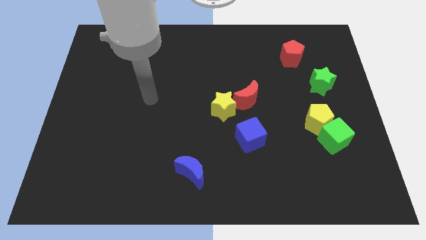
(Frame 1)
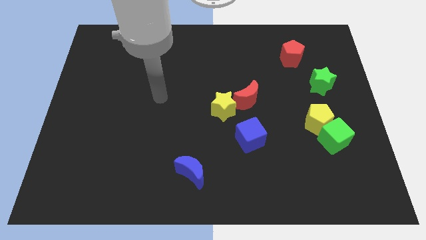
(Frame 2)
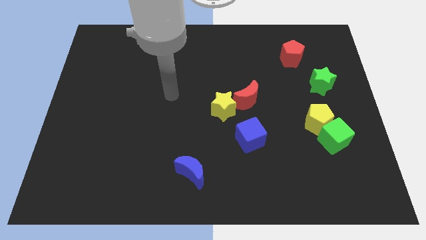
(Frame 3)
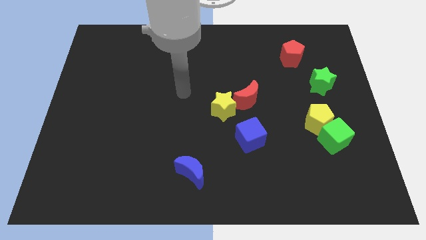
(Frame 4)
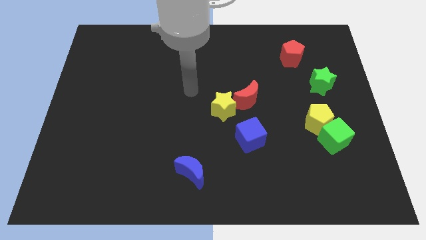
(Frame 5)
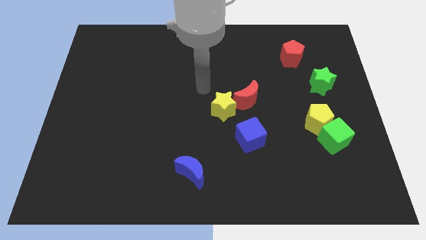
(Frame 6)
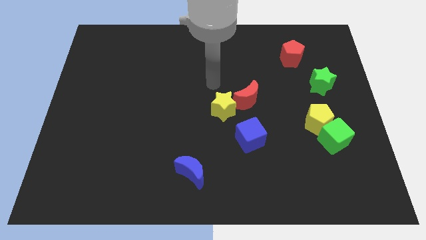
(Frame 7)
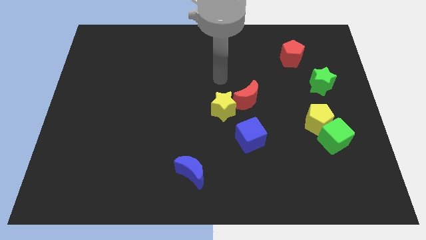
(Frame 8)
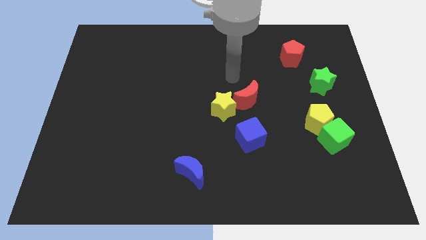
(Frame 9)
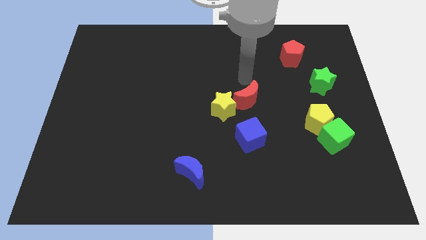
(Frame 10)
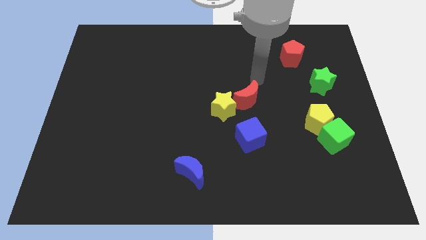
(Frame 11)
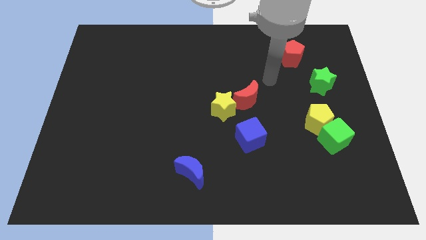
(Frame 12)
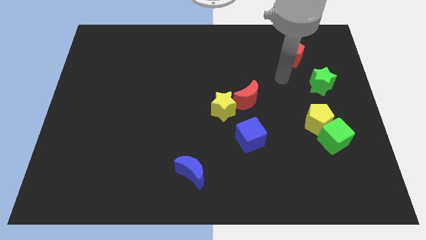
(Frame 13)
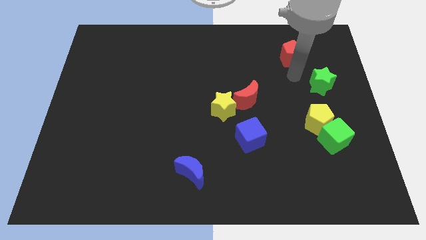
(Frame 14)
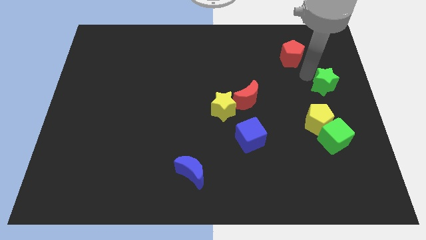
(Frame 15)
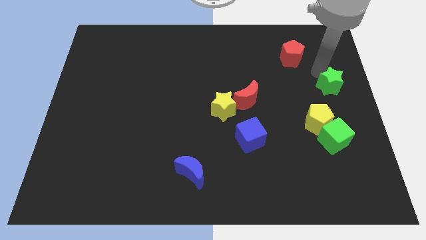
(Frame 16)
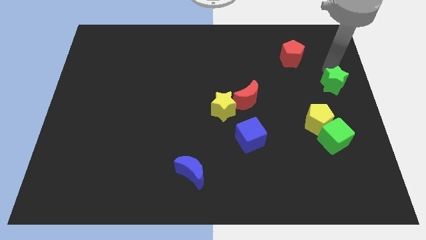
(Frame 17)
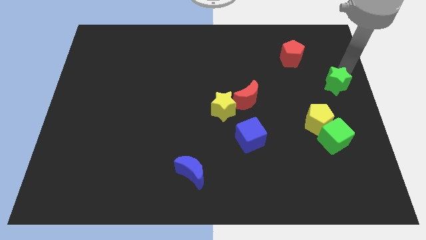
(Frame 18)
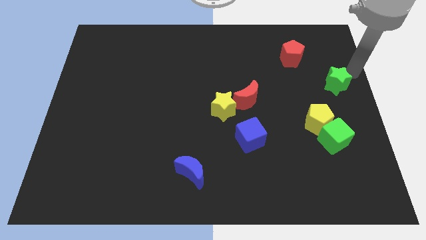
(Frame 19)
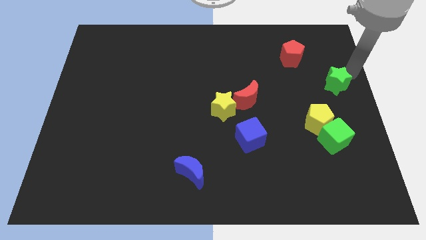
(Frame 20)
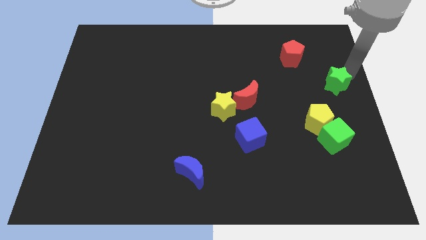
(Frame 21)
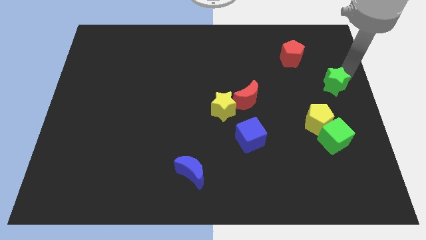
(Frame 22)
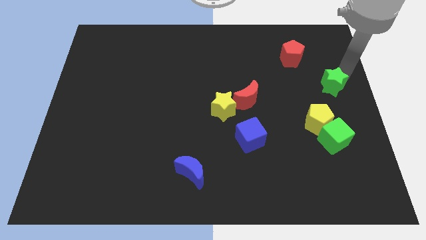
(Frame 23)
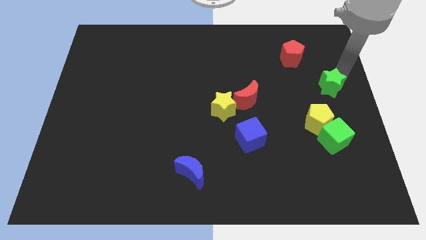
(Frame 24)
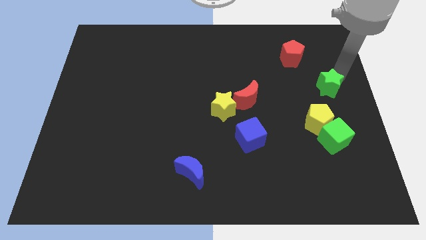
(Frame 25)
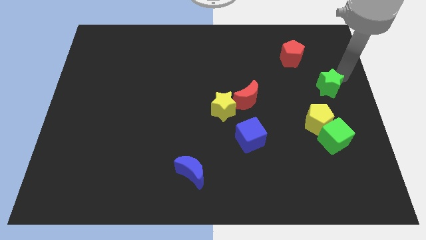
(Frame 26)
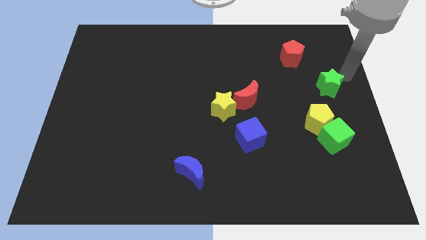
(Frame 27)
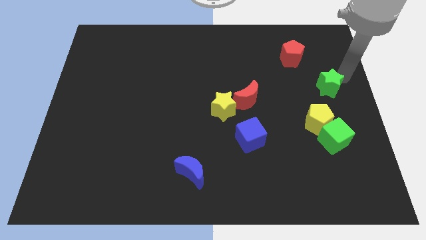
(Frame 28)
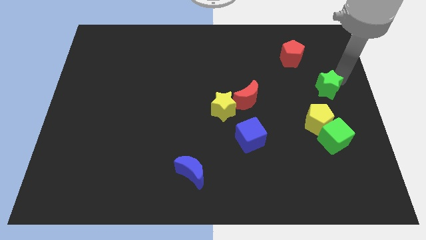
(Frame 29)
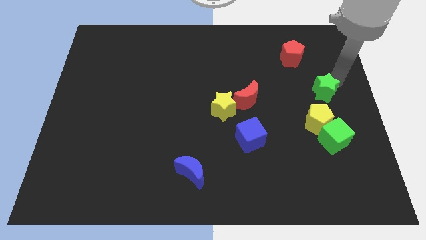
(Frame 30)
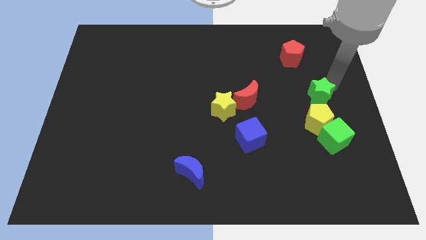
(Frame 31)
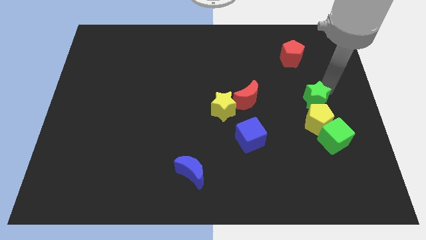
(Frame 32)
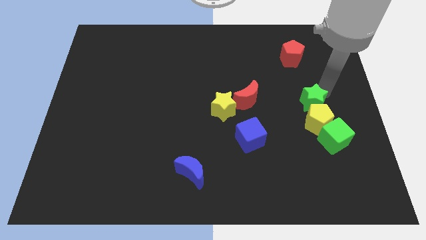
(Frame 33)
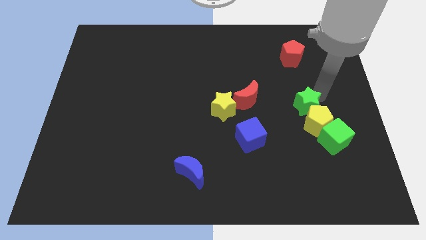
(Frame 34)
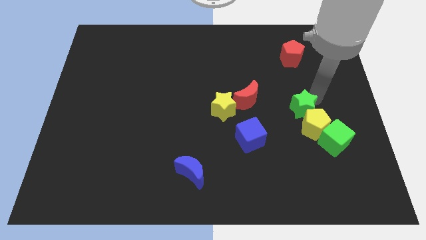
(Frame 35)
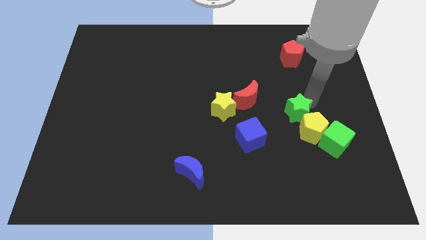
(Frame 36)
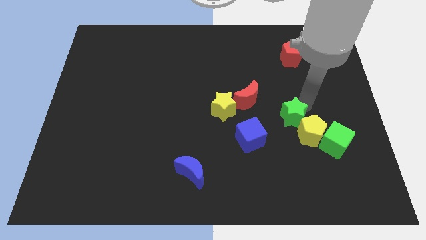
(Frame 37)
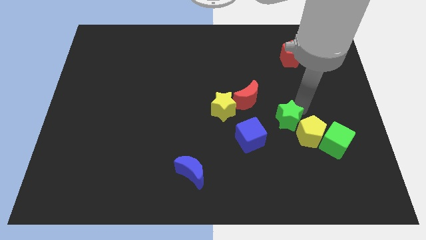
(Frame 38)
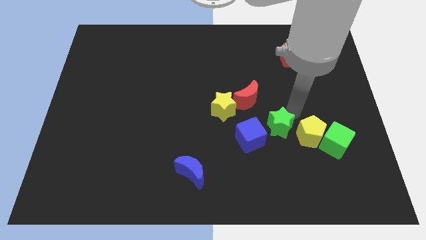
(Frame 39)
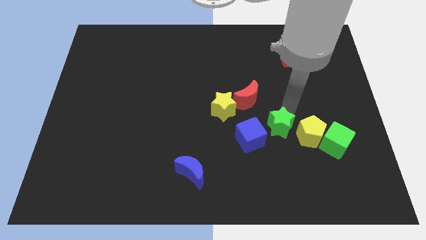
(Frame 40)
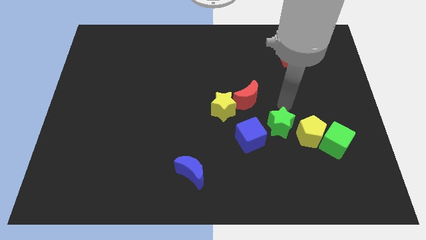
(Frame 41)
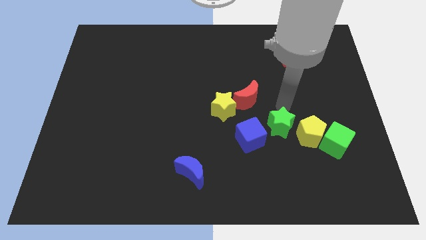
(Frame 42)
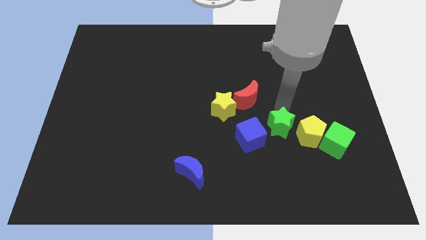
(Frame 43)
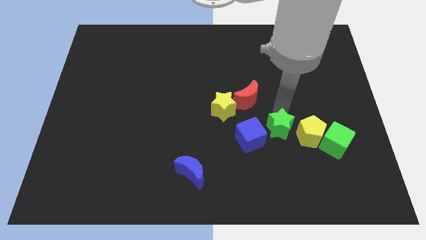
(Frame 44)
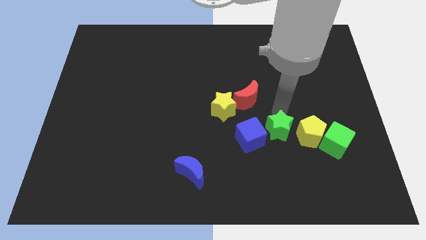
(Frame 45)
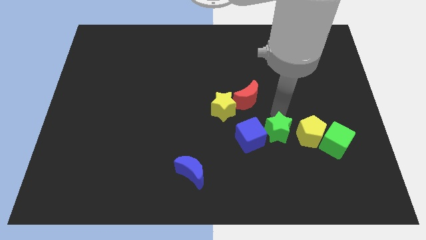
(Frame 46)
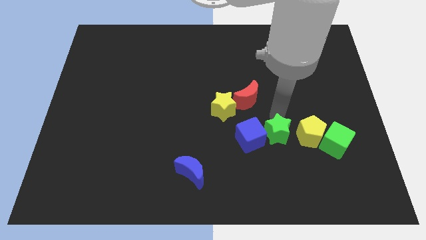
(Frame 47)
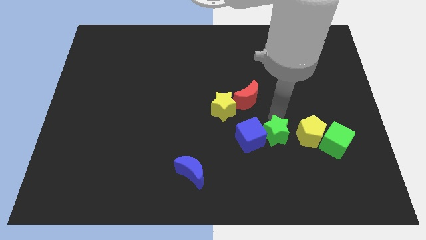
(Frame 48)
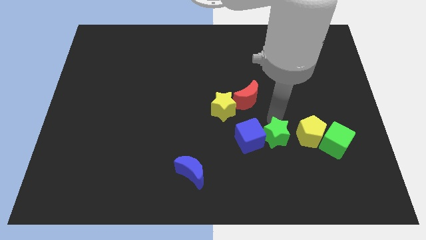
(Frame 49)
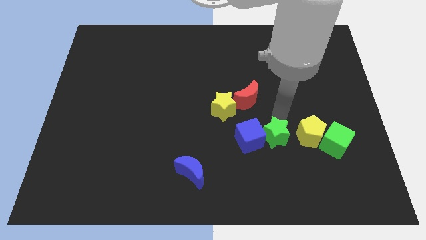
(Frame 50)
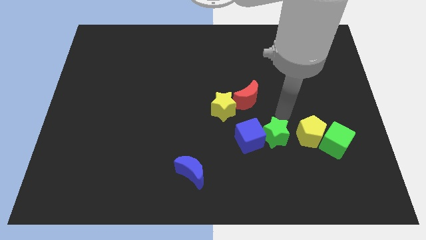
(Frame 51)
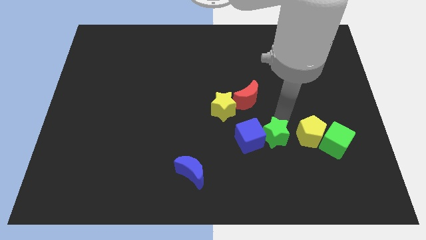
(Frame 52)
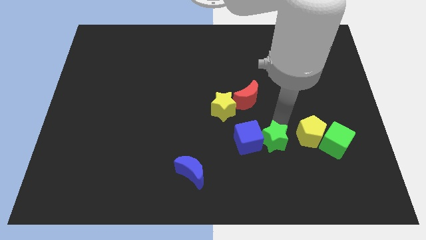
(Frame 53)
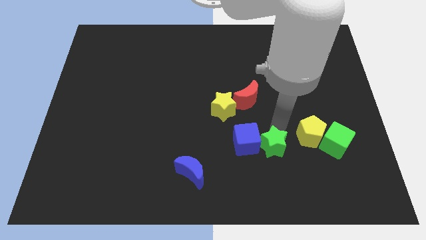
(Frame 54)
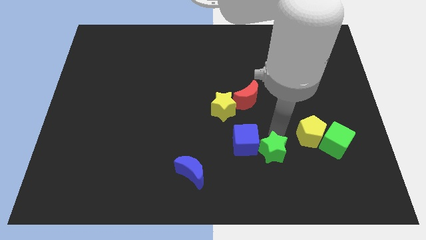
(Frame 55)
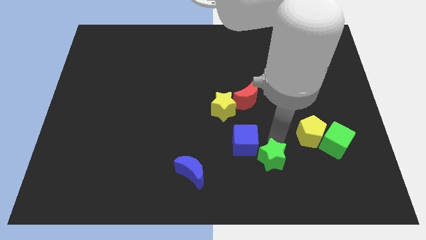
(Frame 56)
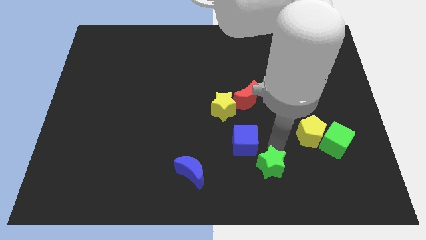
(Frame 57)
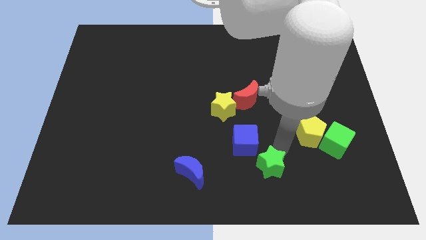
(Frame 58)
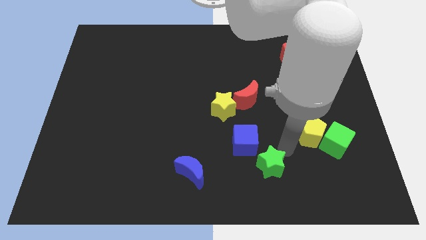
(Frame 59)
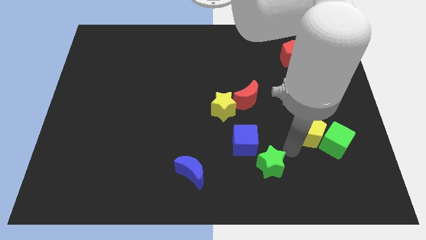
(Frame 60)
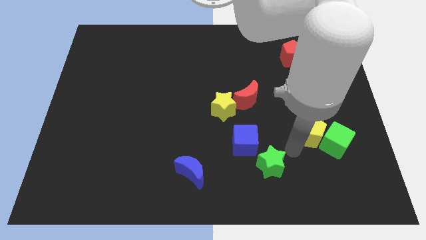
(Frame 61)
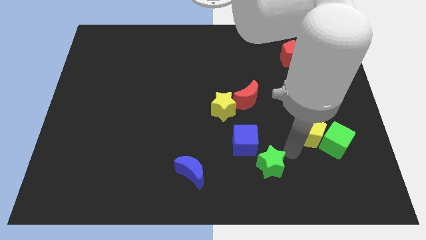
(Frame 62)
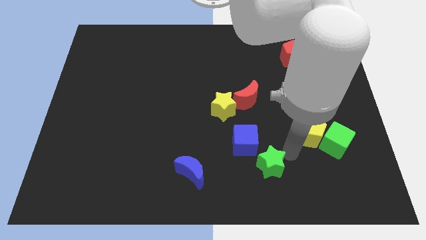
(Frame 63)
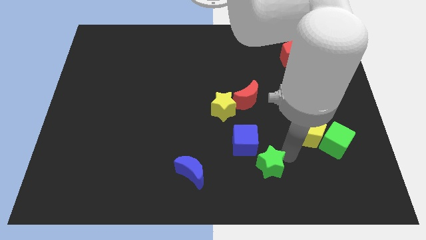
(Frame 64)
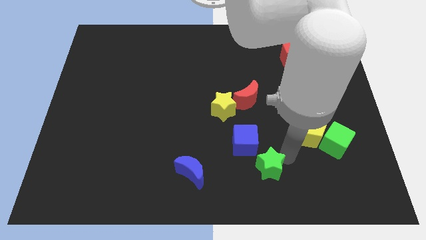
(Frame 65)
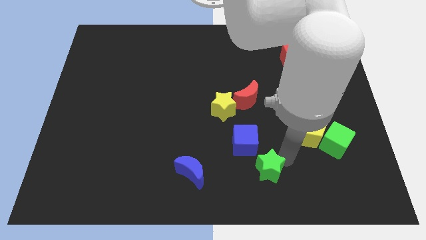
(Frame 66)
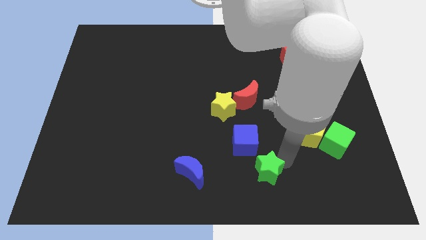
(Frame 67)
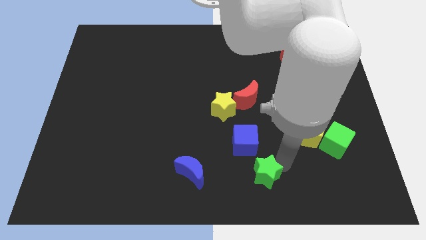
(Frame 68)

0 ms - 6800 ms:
push the green star to the bottom side
